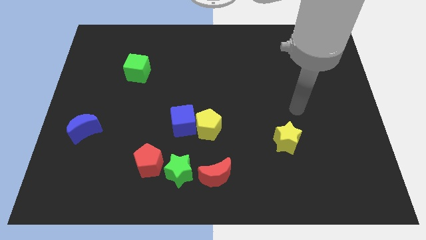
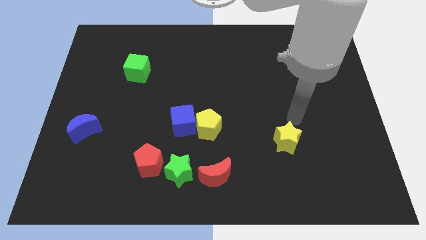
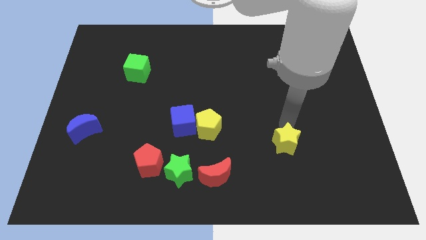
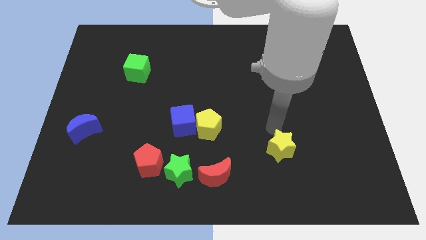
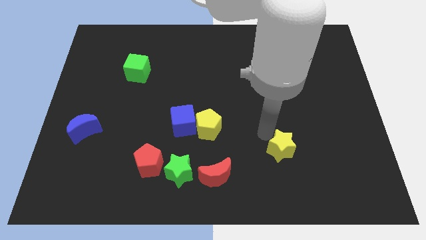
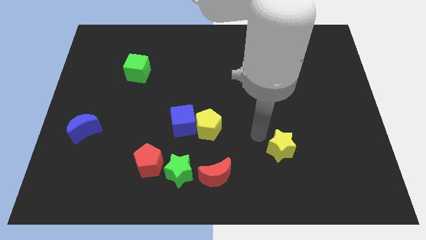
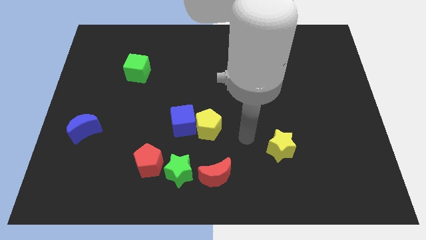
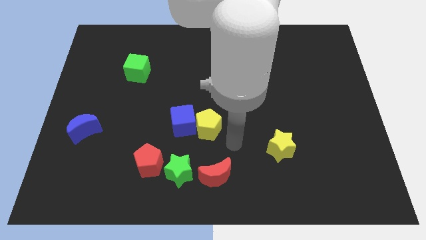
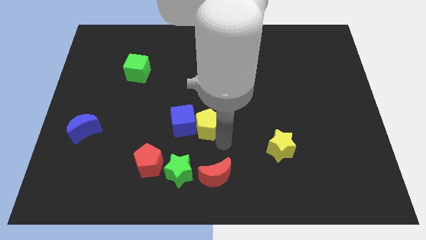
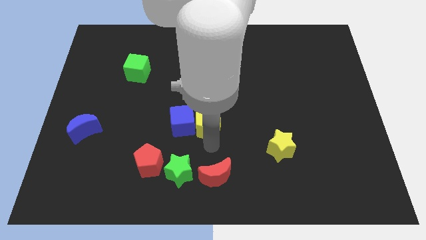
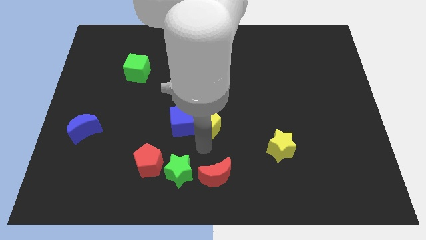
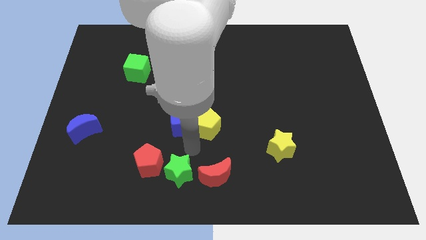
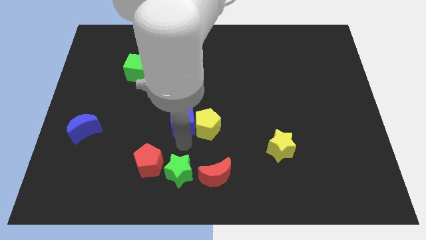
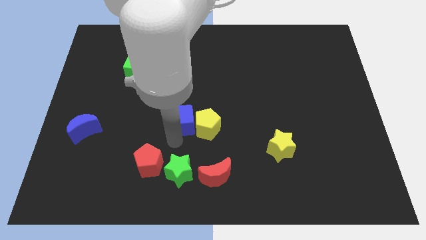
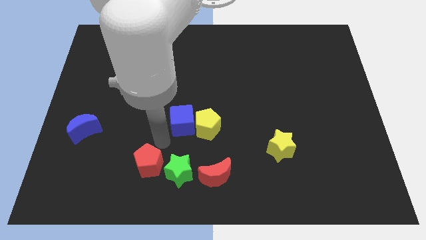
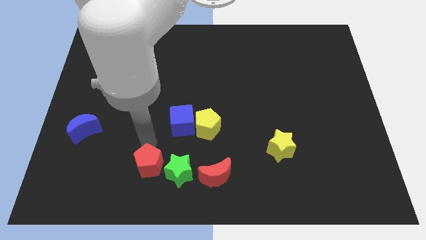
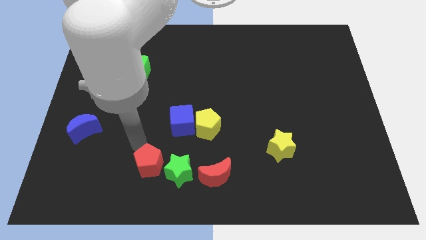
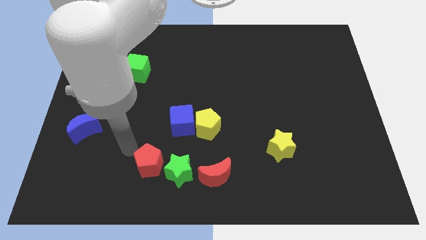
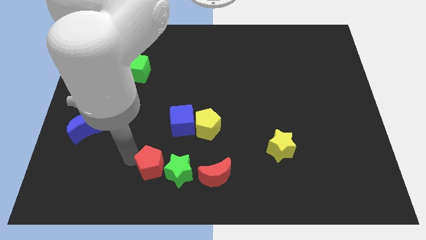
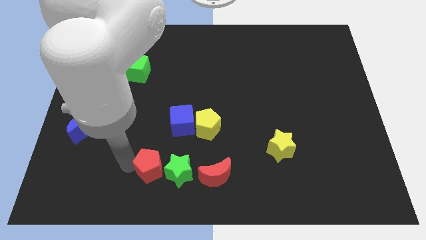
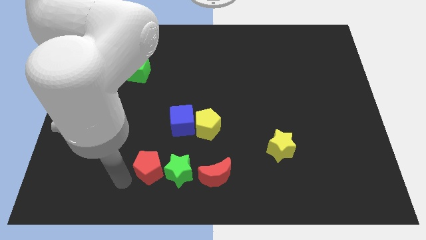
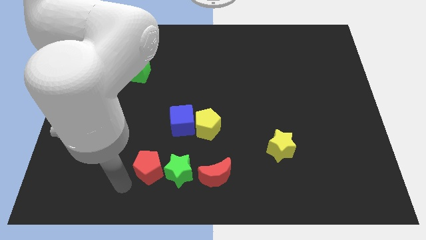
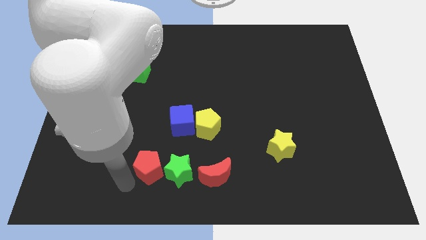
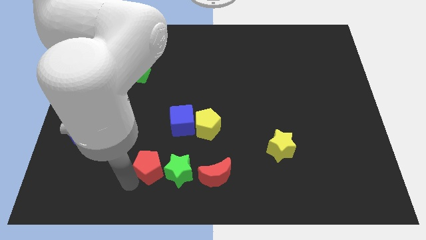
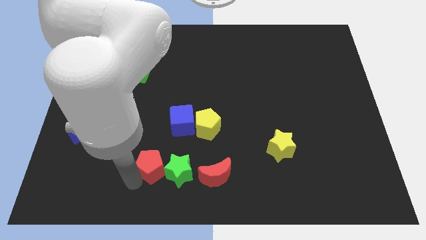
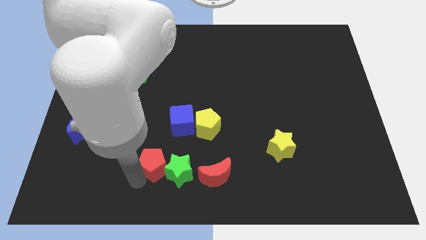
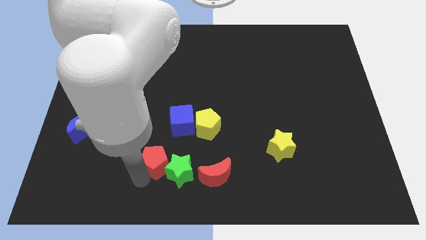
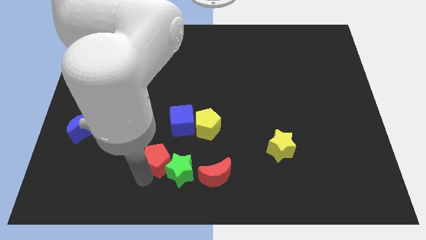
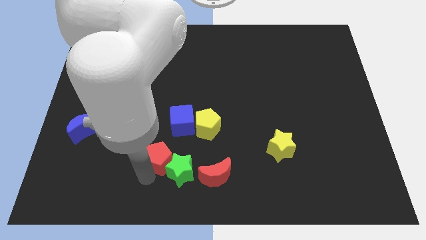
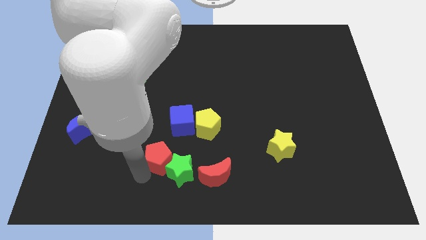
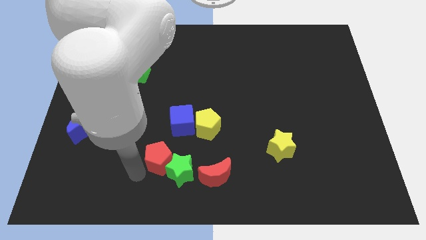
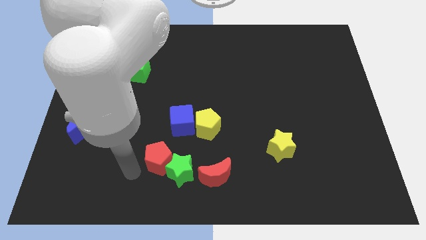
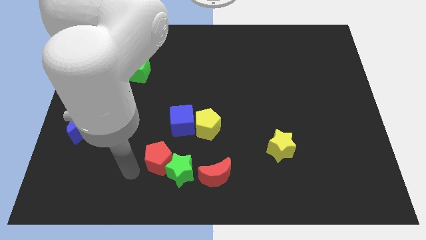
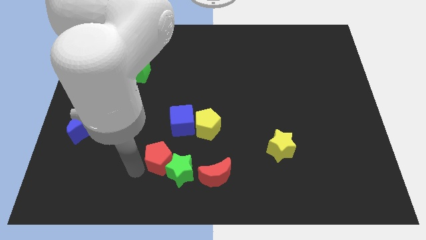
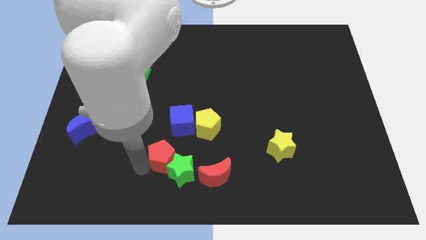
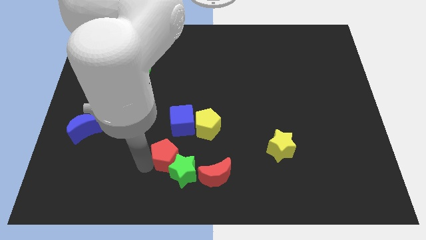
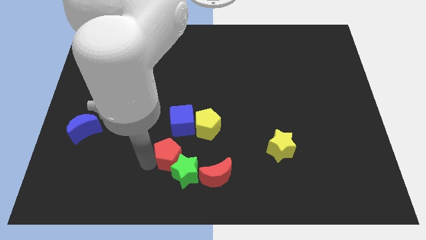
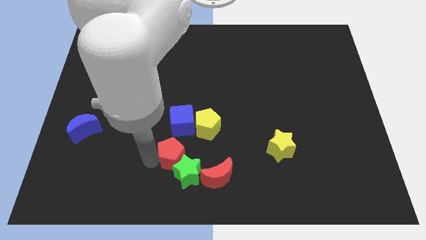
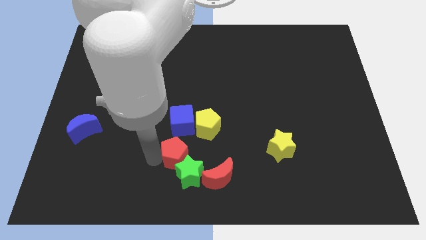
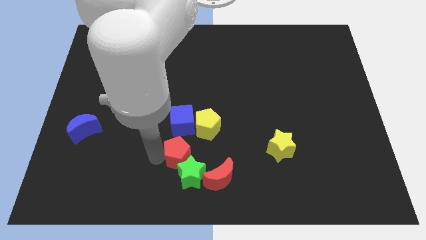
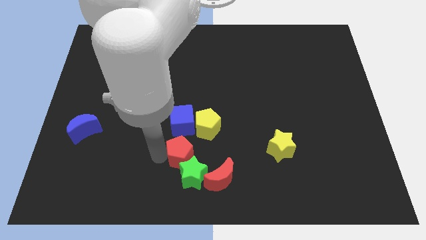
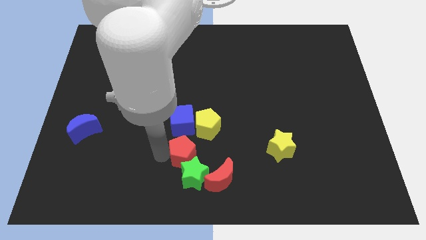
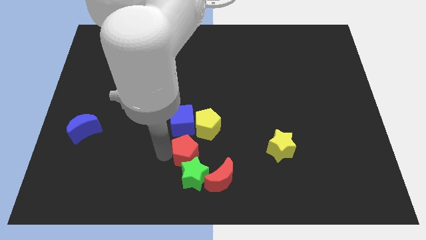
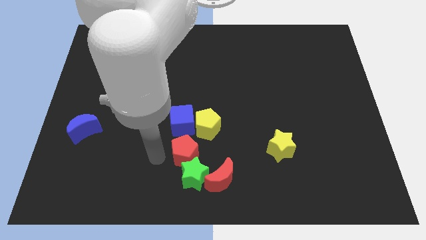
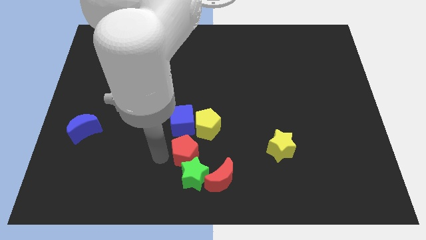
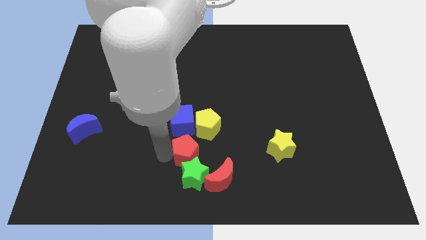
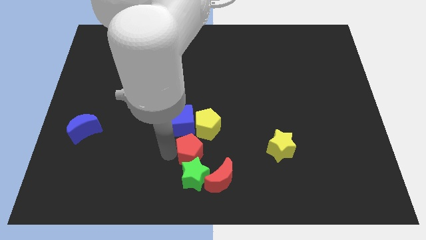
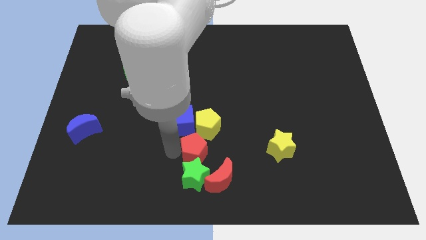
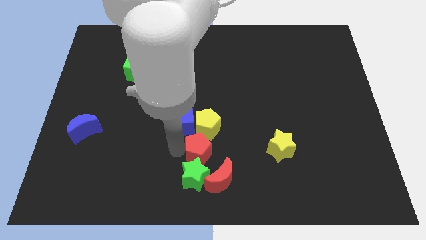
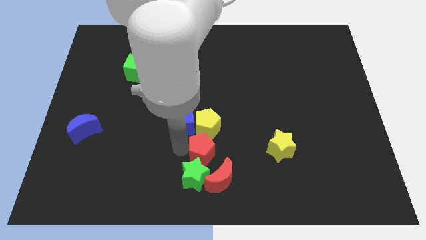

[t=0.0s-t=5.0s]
move the red pentagon to the bottom right side of the yellow pentagon

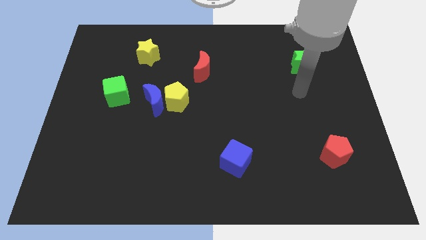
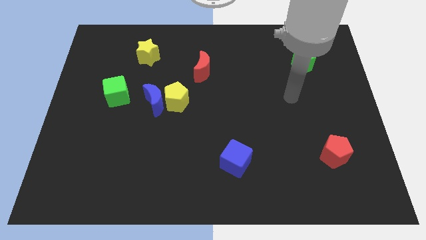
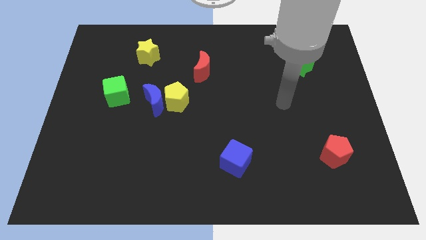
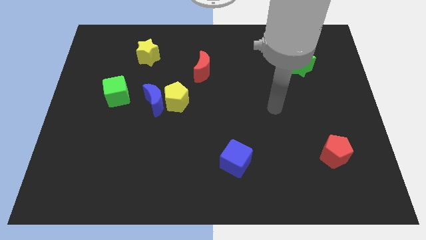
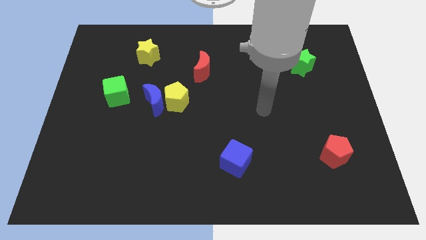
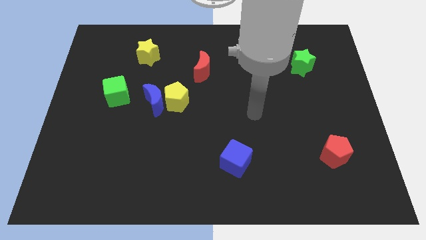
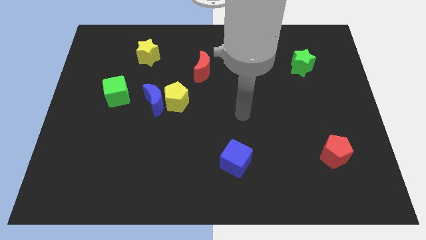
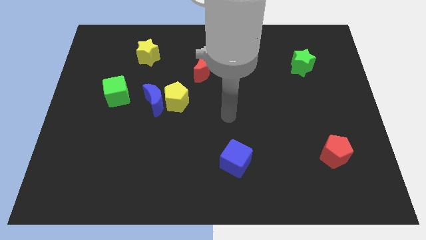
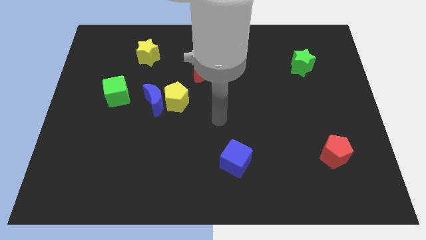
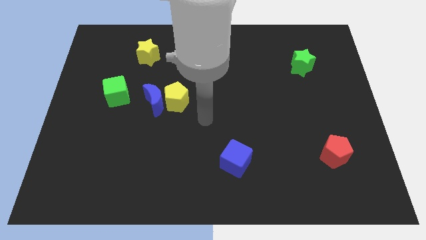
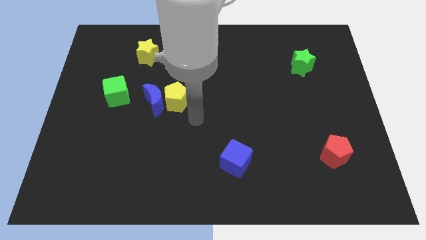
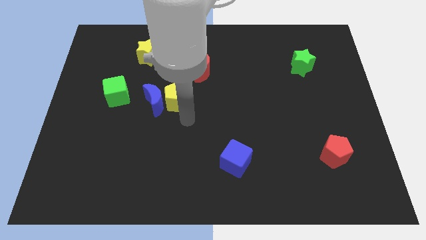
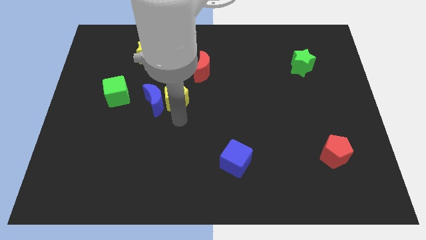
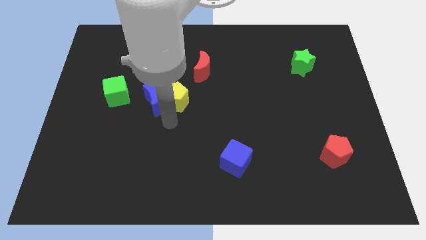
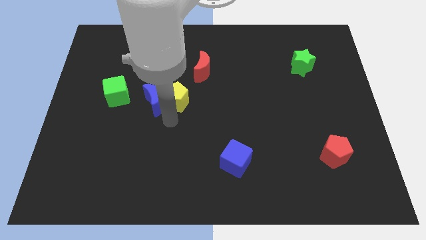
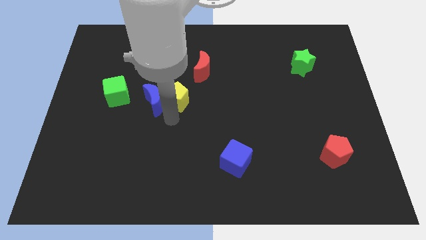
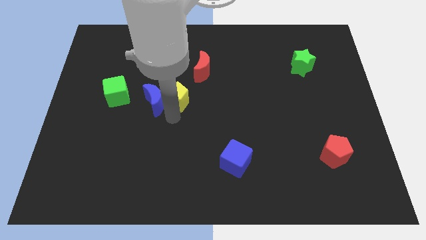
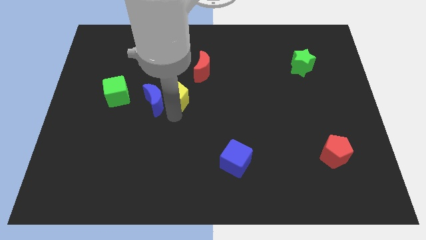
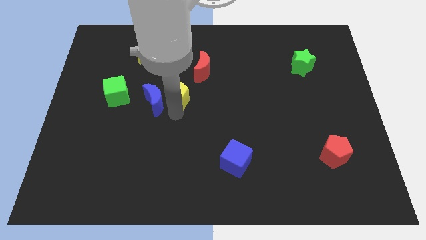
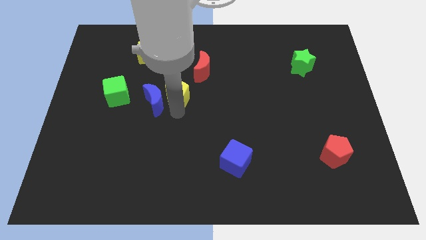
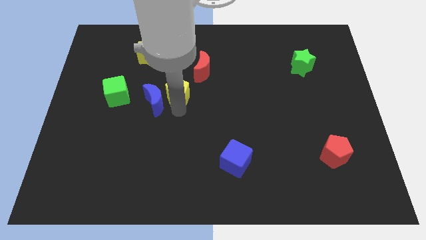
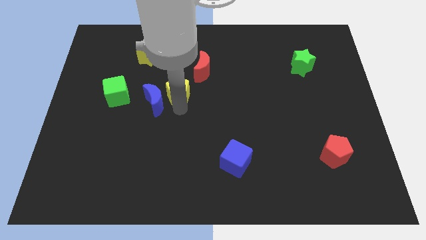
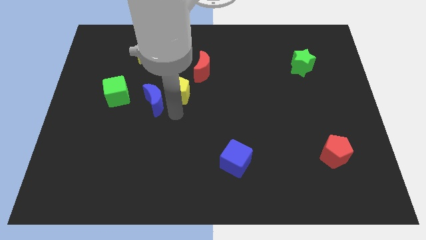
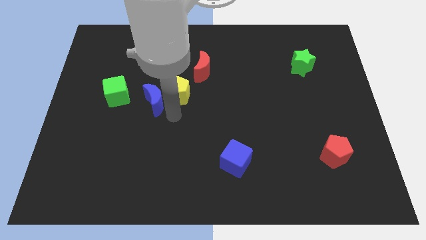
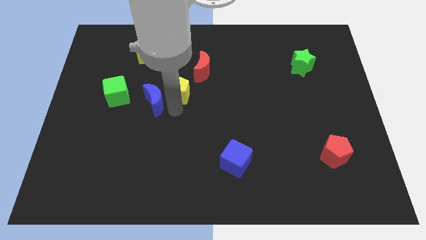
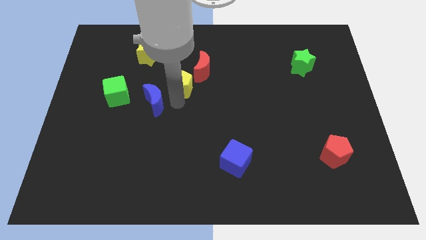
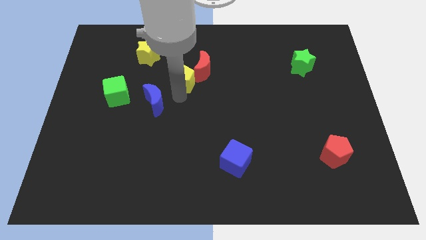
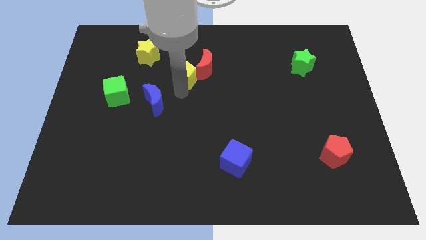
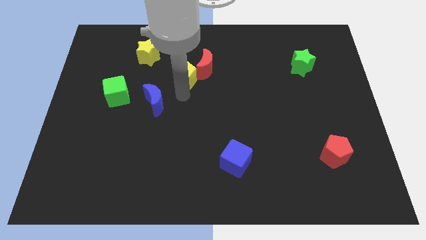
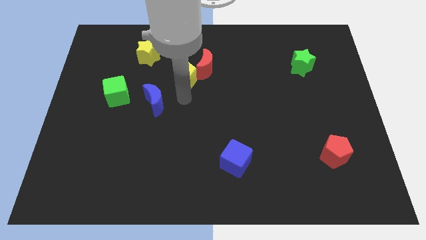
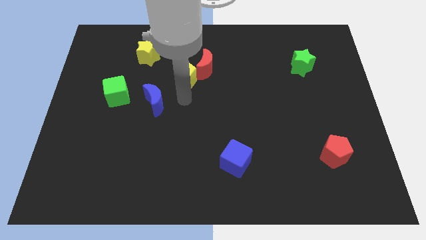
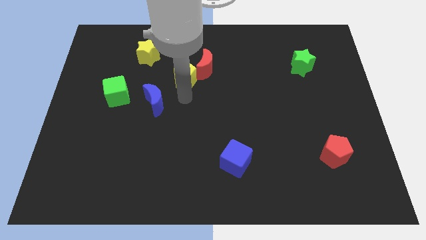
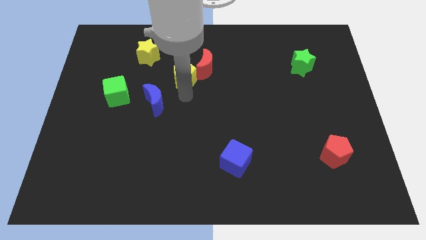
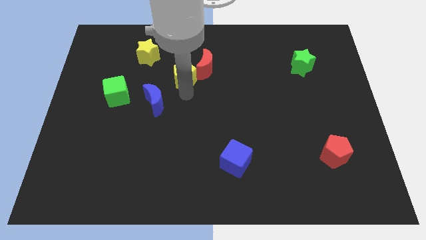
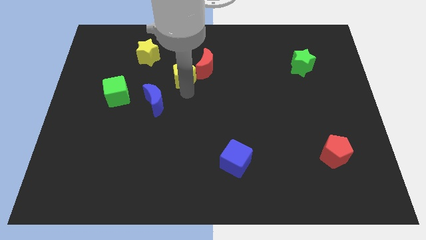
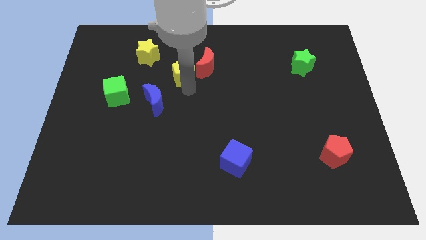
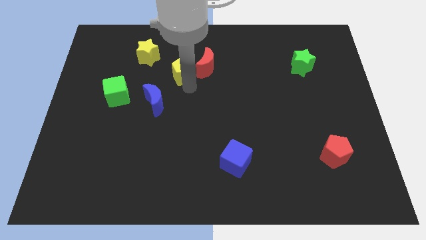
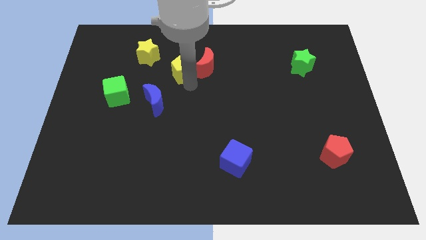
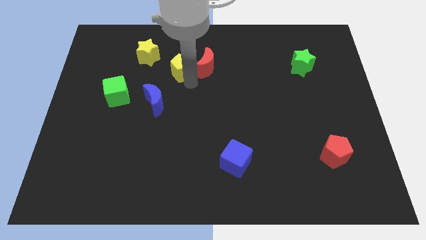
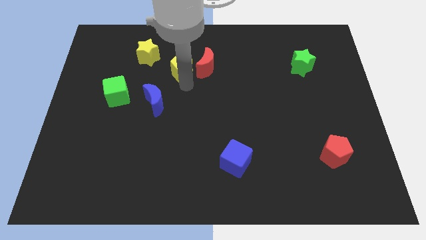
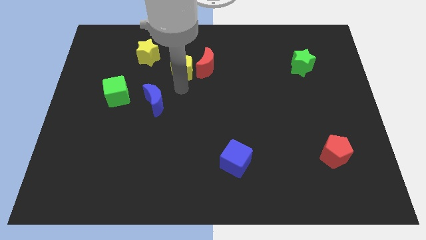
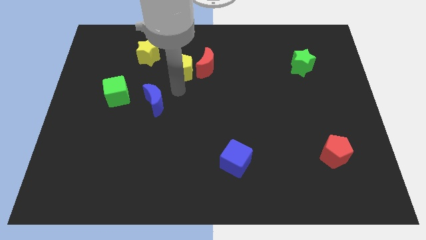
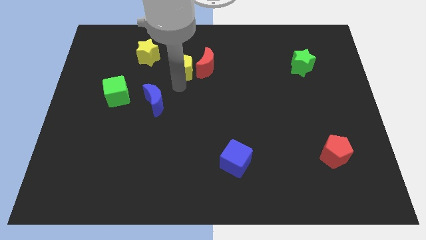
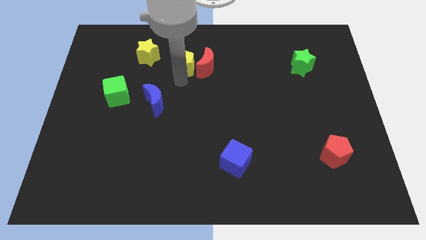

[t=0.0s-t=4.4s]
slide the yellow pentagon to the right side of the yellow star
